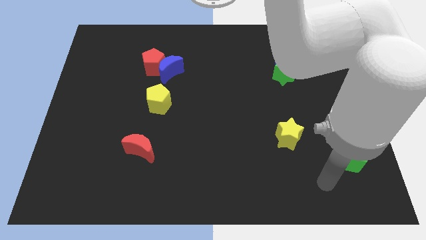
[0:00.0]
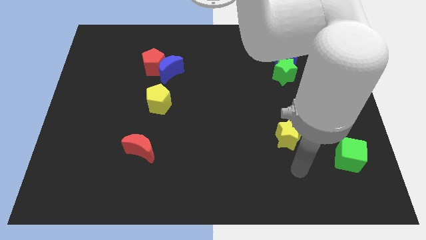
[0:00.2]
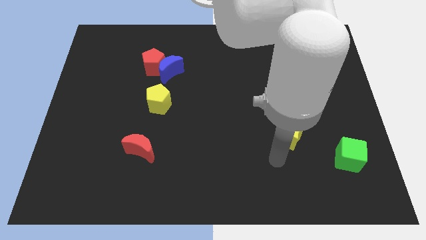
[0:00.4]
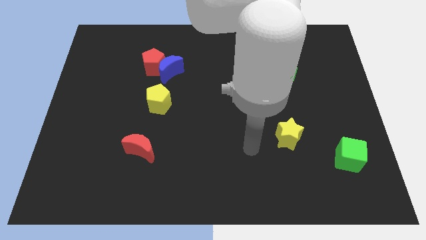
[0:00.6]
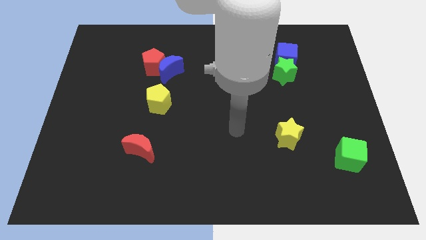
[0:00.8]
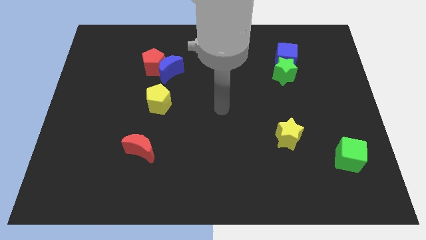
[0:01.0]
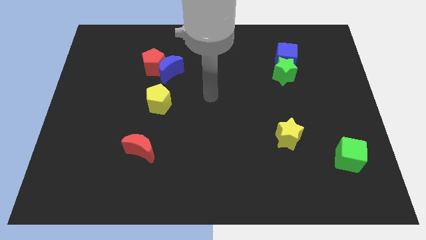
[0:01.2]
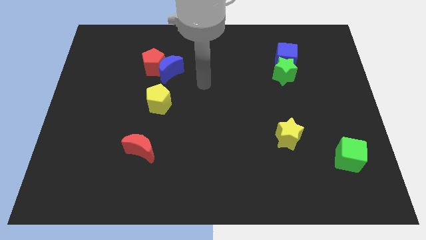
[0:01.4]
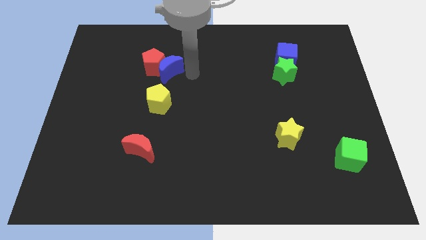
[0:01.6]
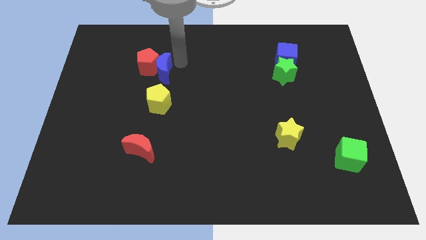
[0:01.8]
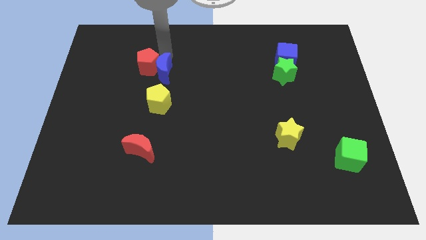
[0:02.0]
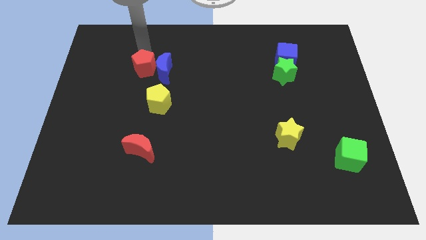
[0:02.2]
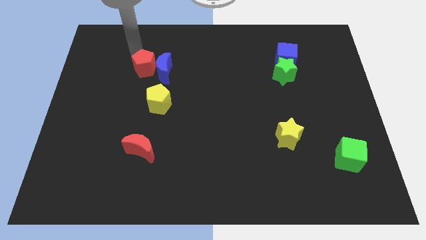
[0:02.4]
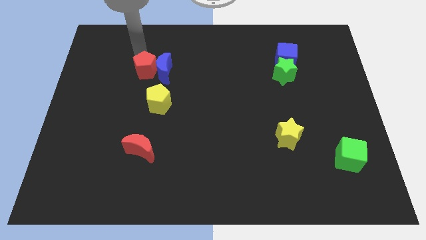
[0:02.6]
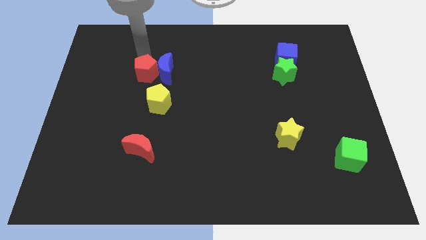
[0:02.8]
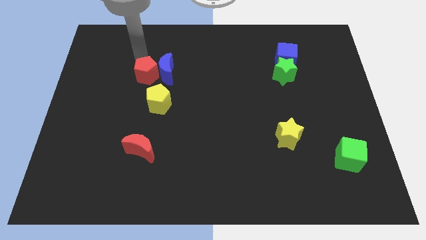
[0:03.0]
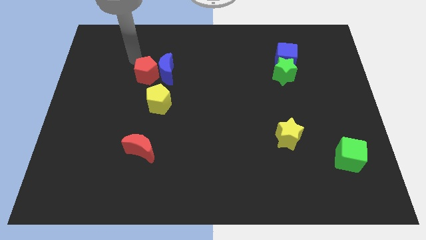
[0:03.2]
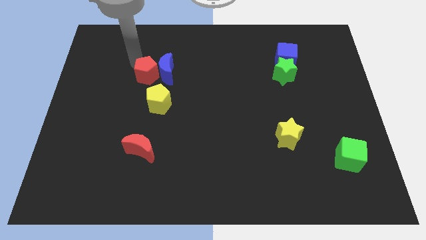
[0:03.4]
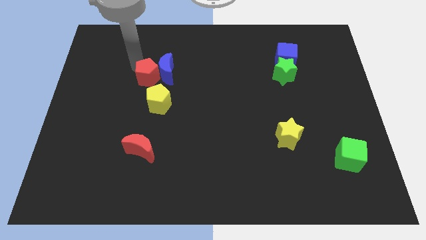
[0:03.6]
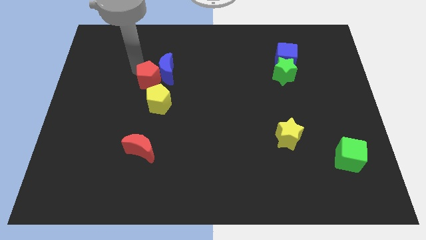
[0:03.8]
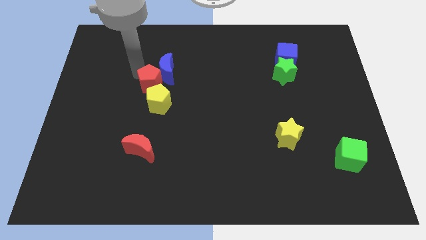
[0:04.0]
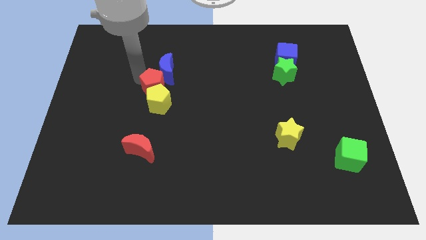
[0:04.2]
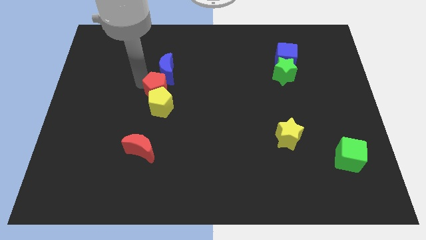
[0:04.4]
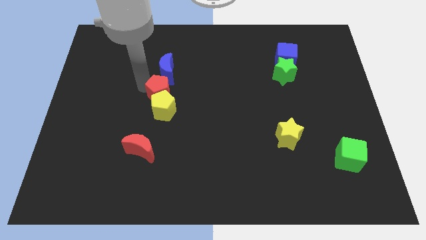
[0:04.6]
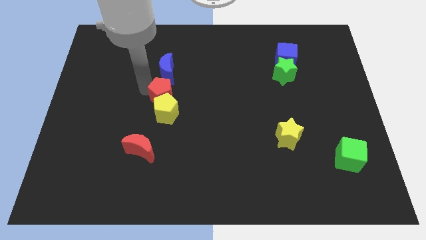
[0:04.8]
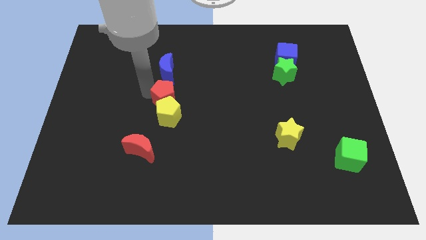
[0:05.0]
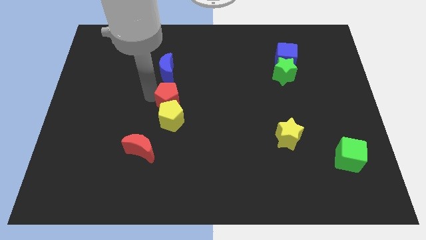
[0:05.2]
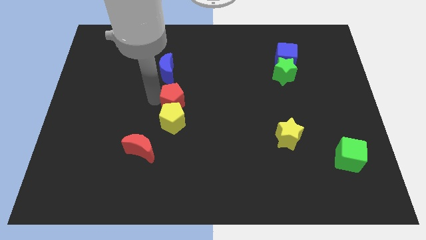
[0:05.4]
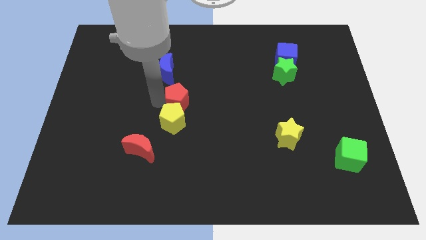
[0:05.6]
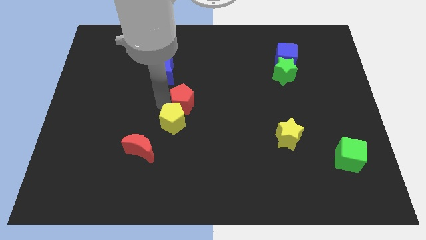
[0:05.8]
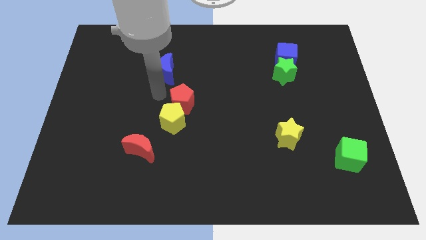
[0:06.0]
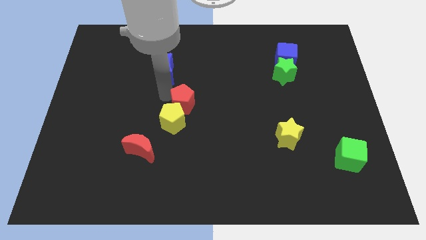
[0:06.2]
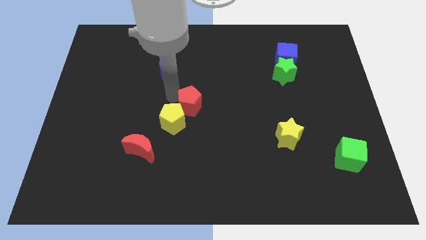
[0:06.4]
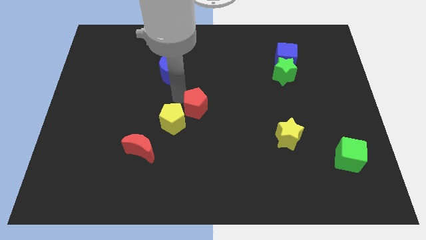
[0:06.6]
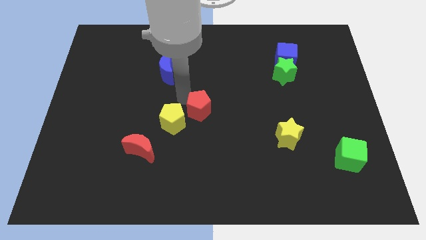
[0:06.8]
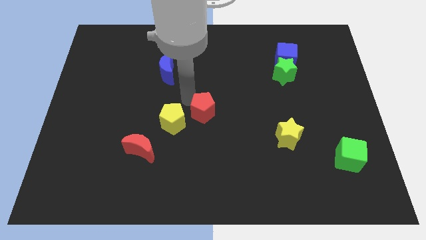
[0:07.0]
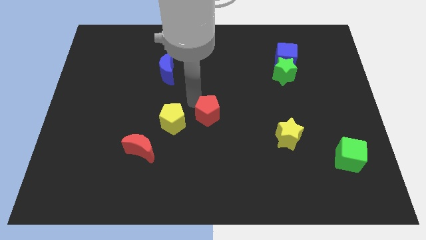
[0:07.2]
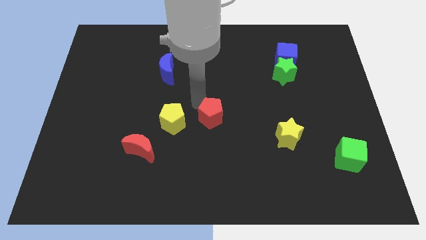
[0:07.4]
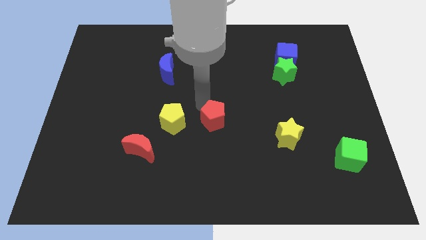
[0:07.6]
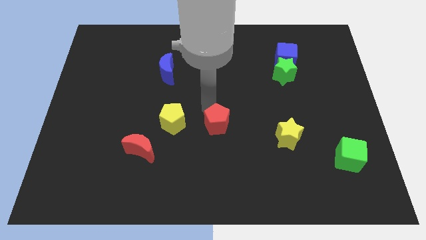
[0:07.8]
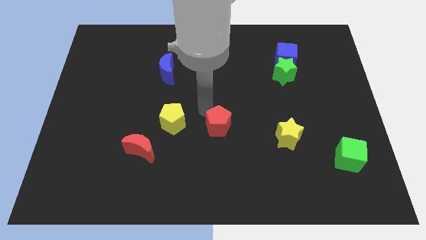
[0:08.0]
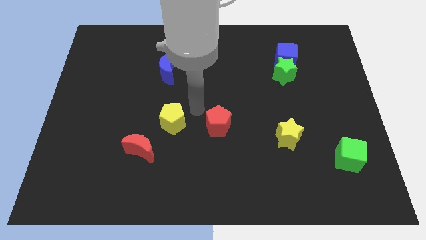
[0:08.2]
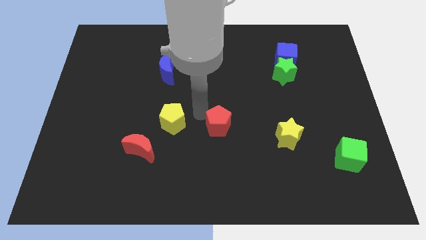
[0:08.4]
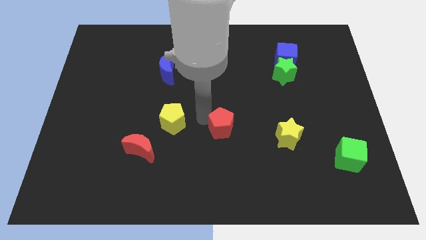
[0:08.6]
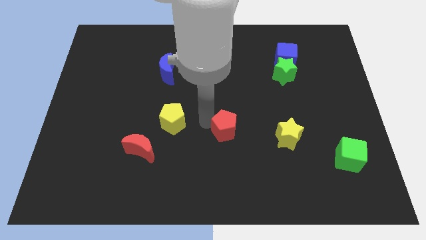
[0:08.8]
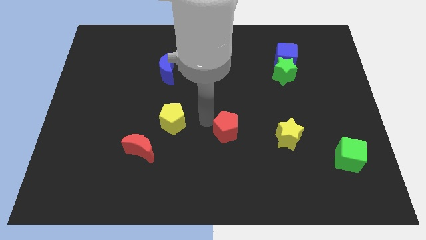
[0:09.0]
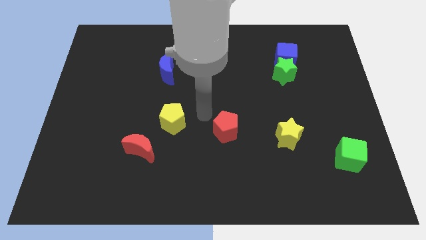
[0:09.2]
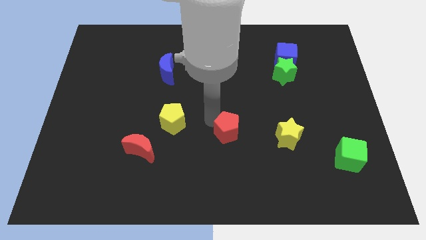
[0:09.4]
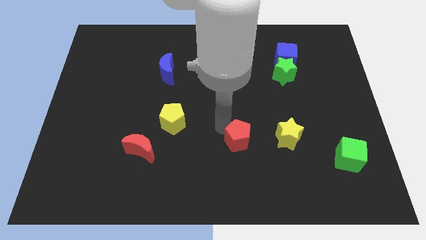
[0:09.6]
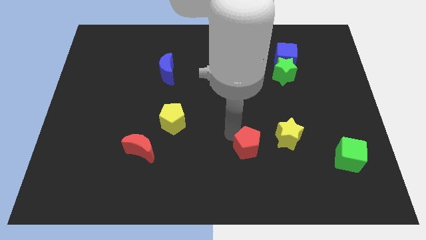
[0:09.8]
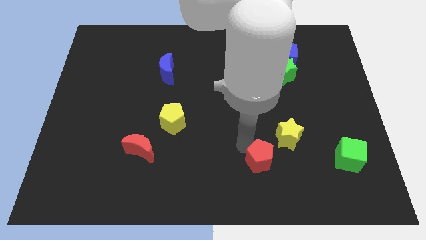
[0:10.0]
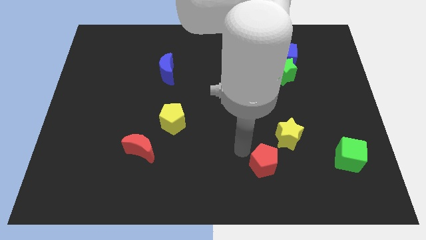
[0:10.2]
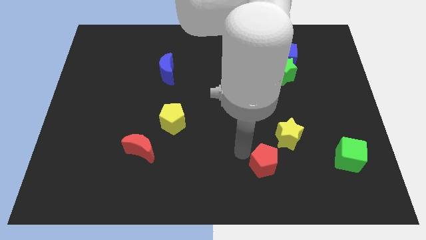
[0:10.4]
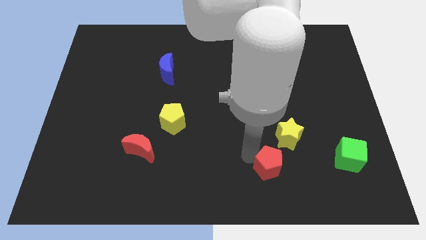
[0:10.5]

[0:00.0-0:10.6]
slide the red pentagon to the bottom side of the yellow star

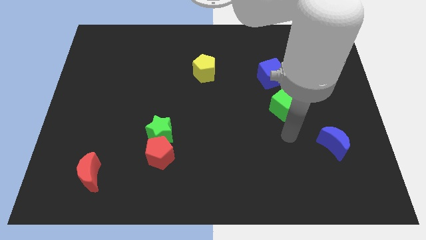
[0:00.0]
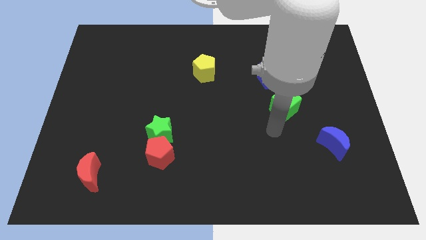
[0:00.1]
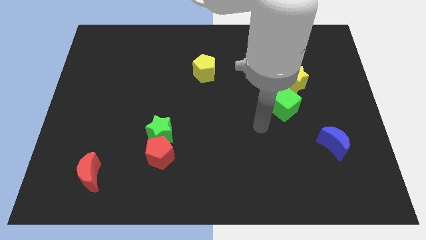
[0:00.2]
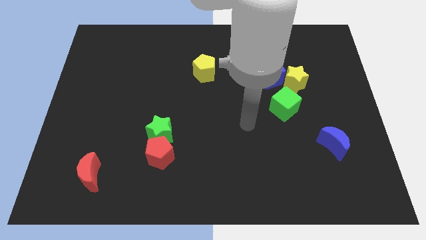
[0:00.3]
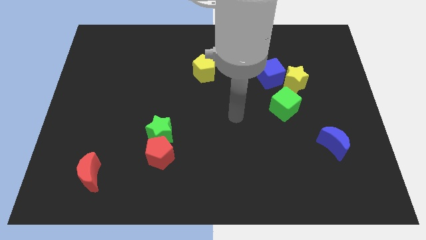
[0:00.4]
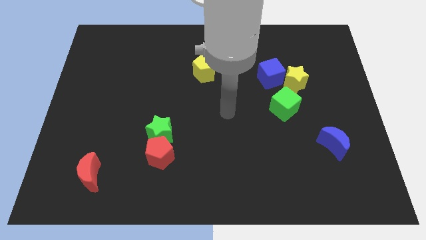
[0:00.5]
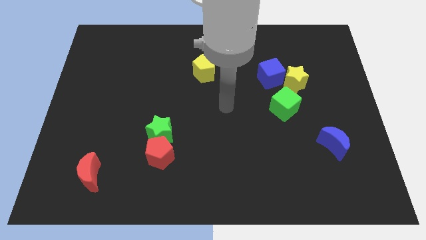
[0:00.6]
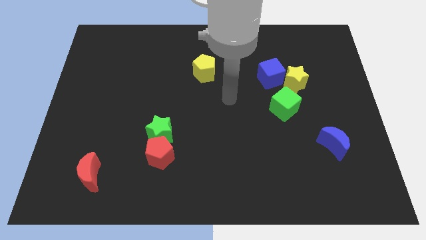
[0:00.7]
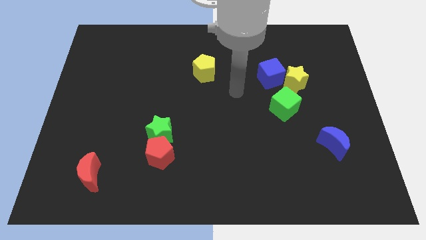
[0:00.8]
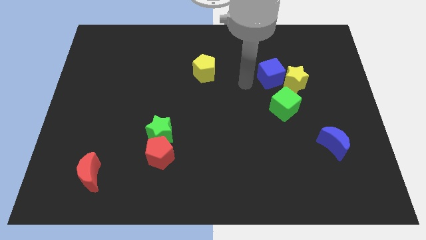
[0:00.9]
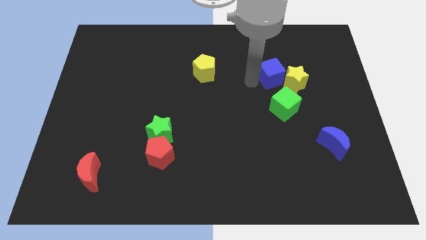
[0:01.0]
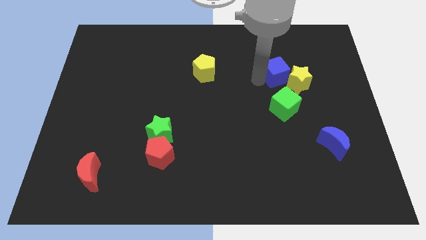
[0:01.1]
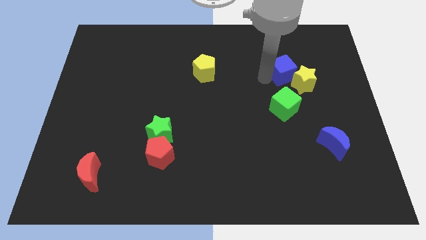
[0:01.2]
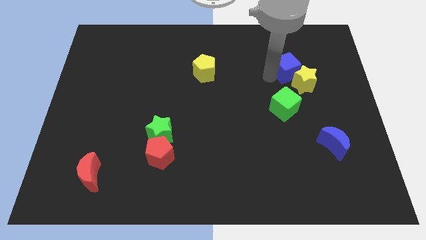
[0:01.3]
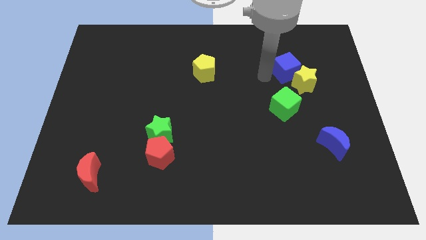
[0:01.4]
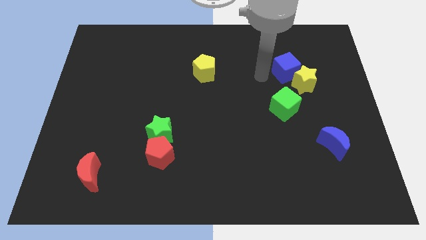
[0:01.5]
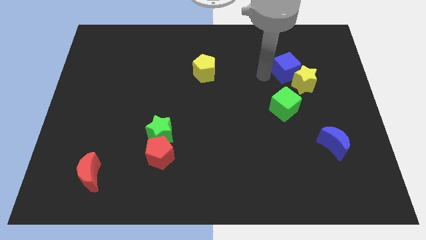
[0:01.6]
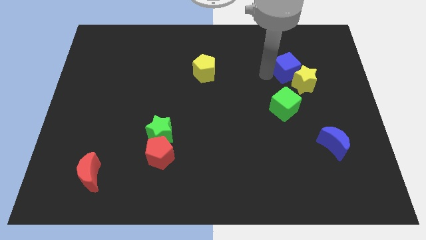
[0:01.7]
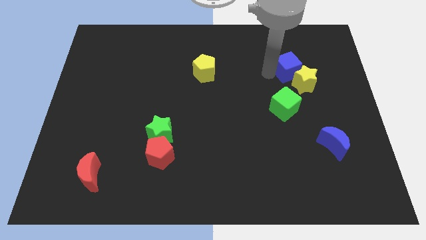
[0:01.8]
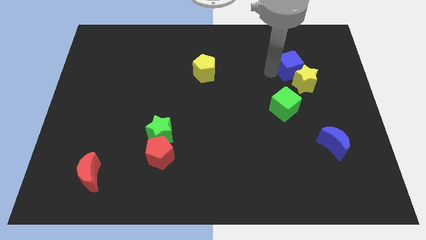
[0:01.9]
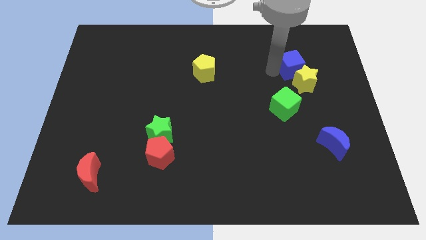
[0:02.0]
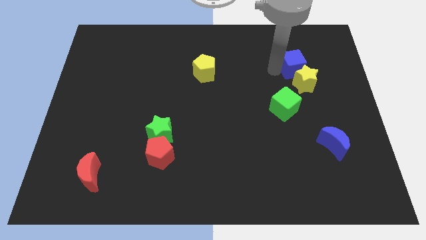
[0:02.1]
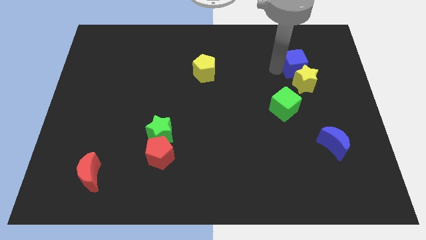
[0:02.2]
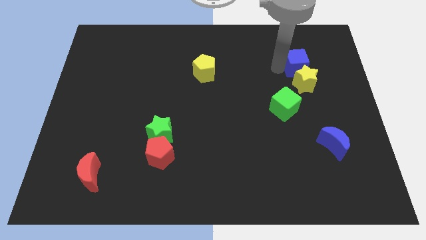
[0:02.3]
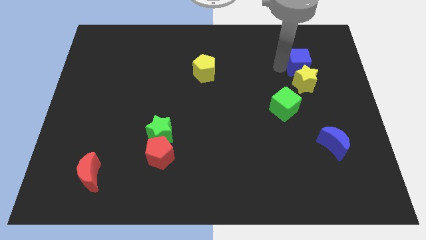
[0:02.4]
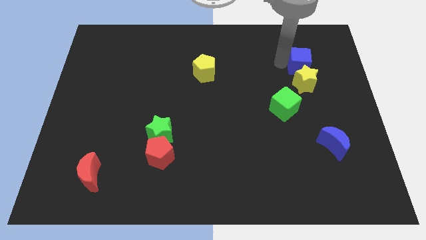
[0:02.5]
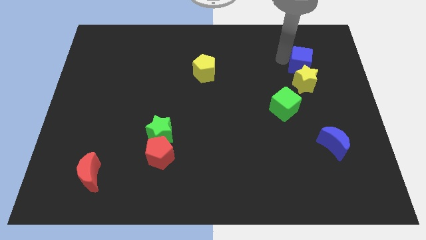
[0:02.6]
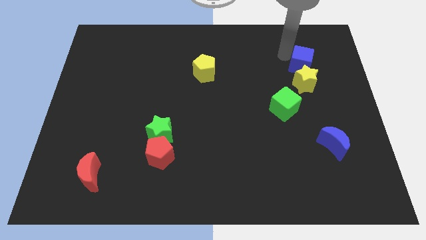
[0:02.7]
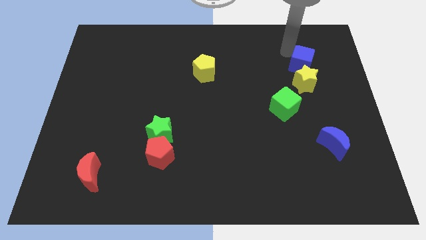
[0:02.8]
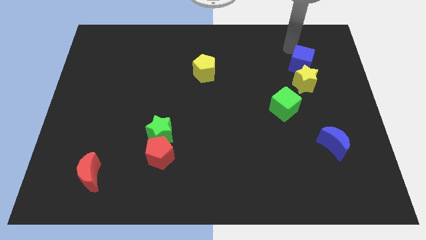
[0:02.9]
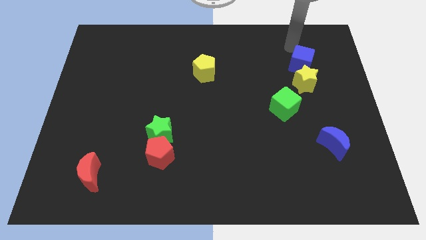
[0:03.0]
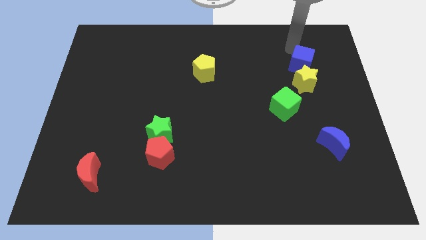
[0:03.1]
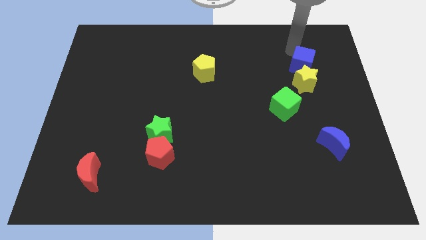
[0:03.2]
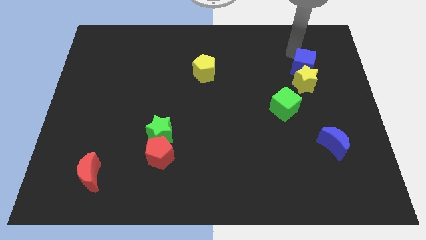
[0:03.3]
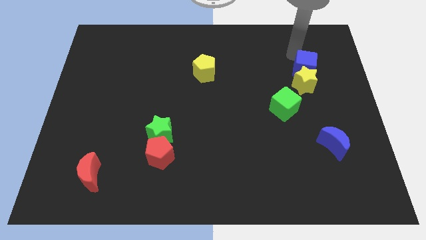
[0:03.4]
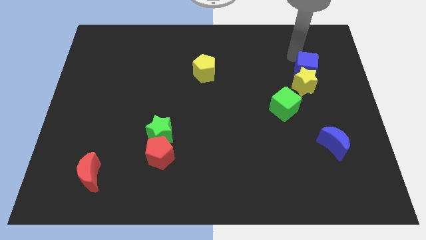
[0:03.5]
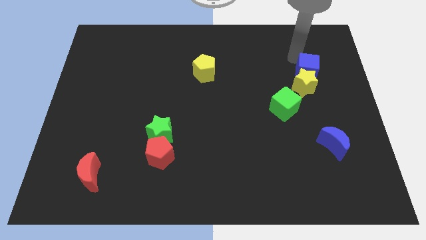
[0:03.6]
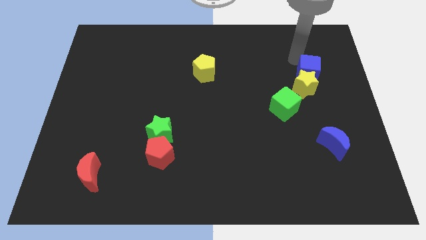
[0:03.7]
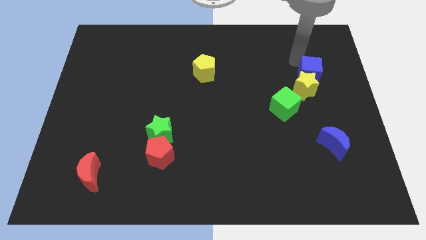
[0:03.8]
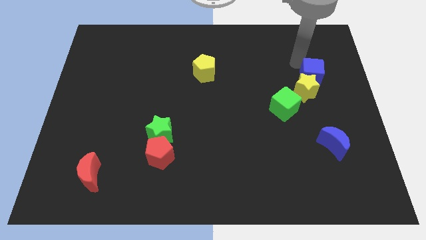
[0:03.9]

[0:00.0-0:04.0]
move the blue cube diagonally up and to the right of the green cube
